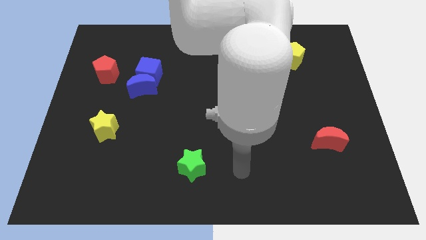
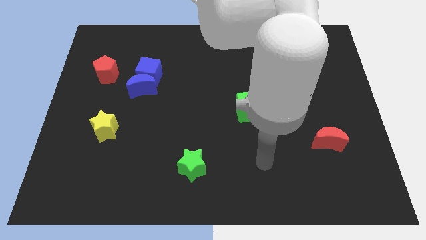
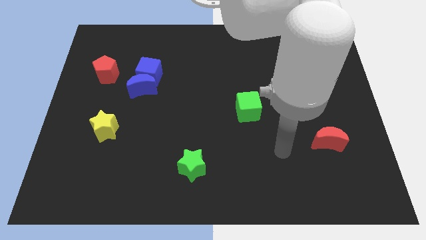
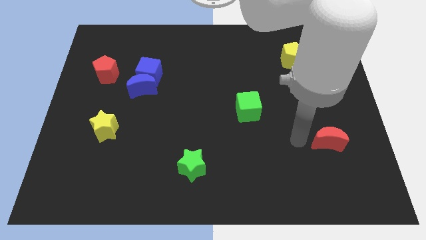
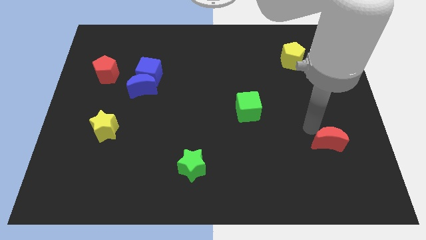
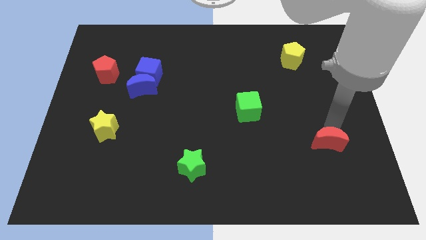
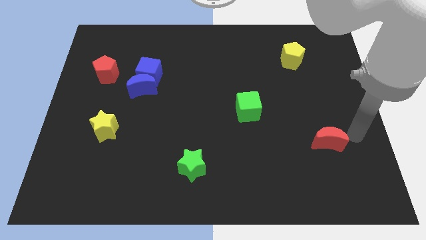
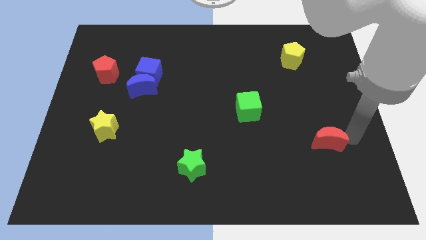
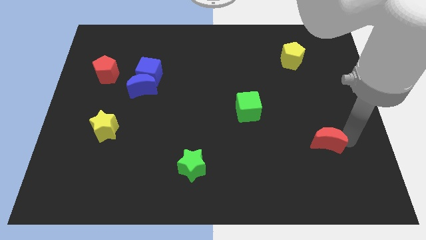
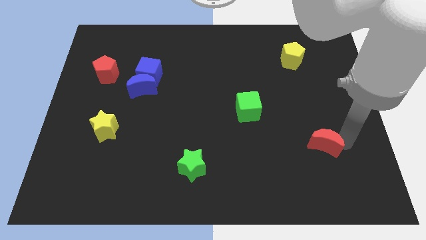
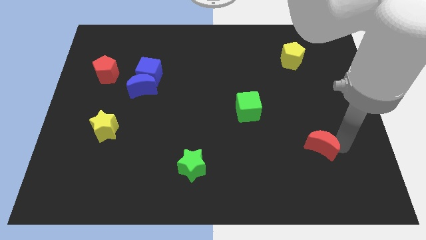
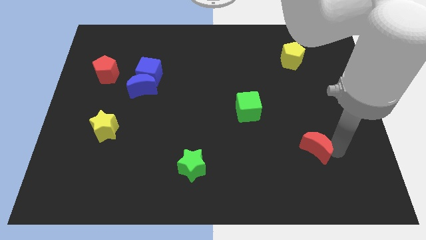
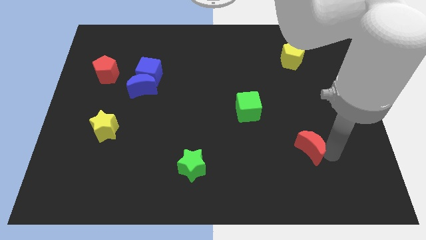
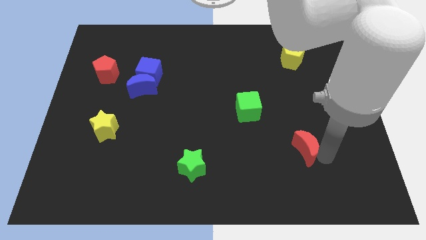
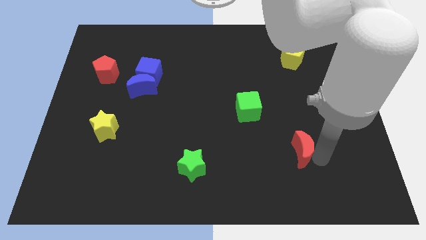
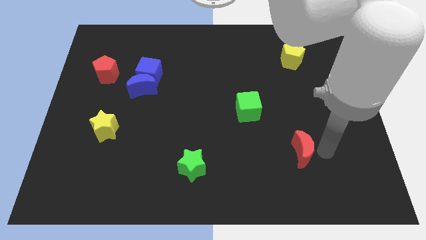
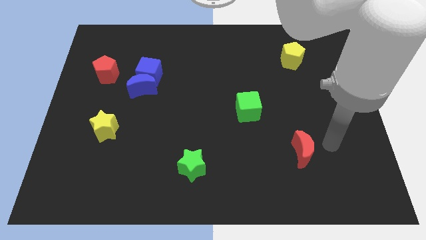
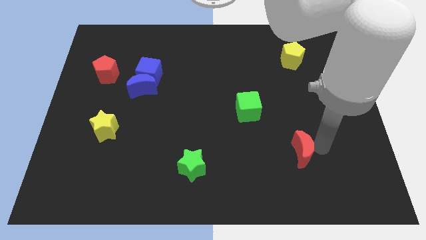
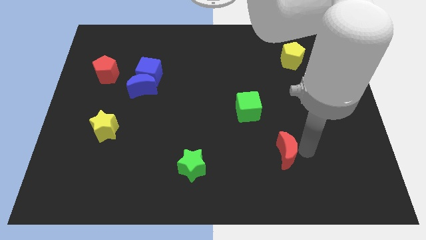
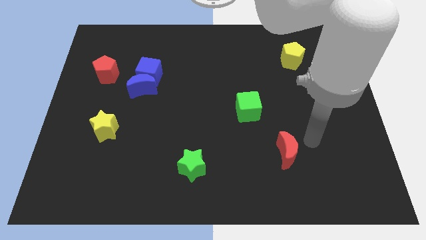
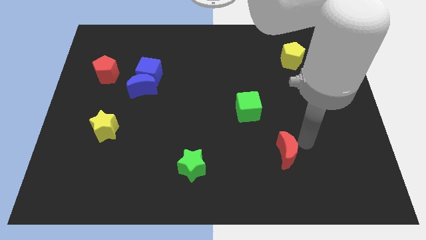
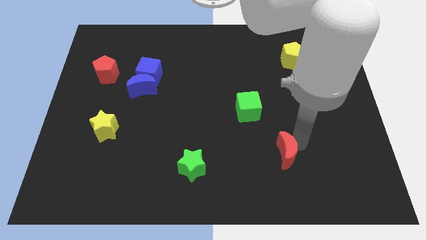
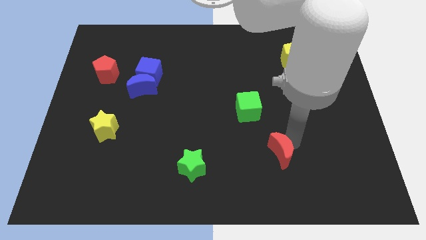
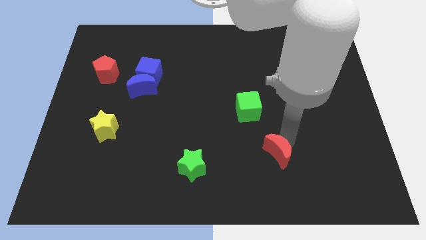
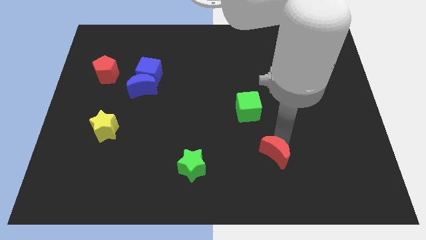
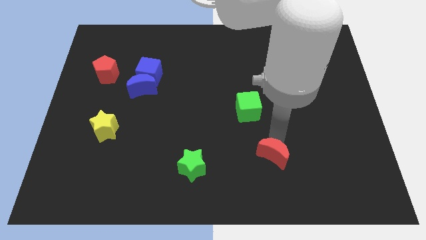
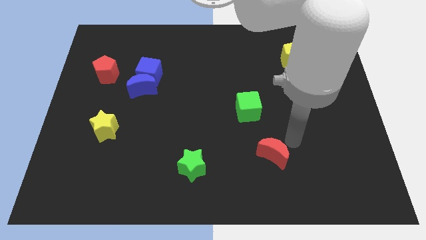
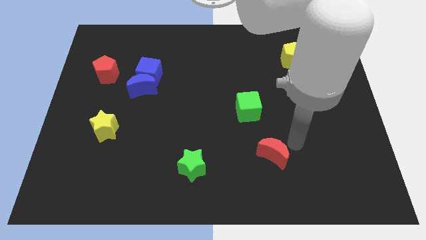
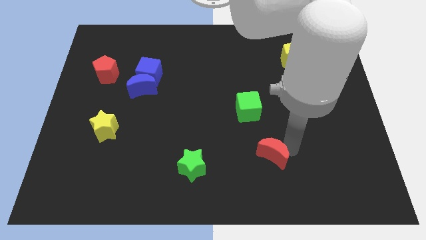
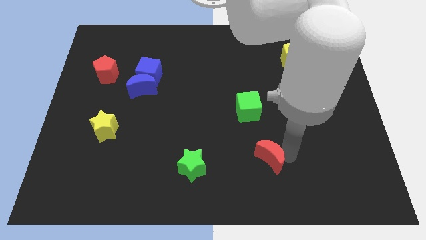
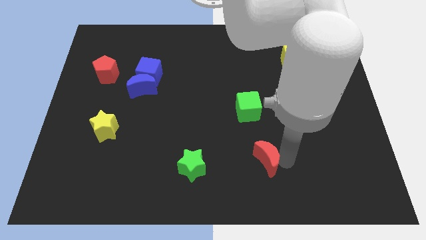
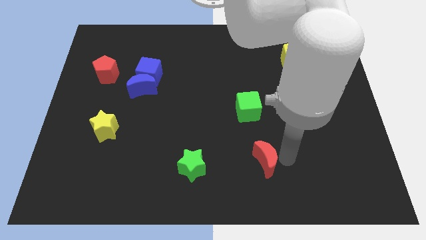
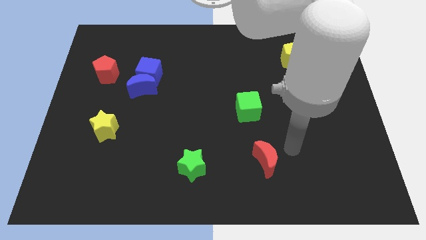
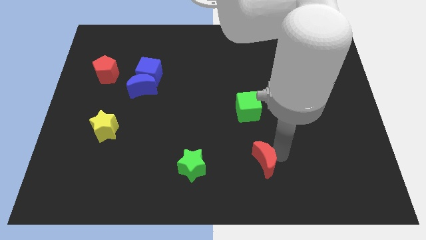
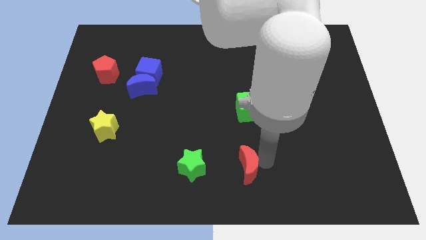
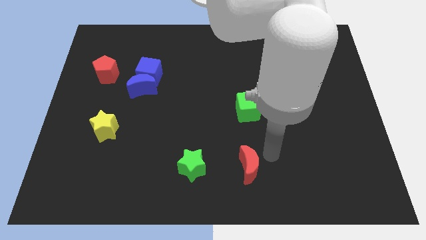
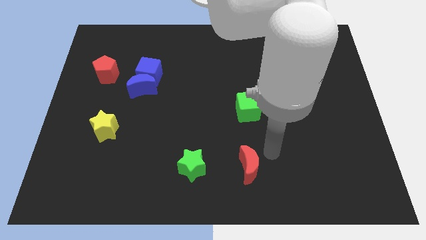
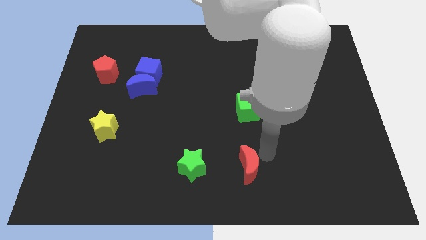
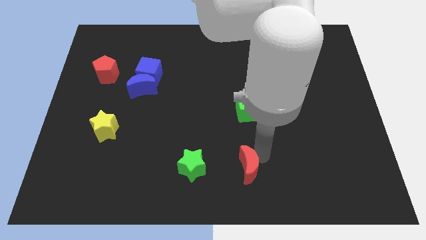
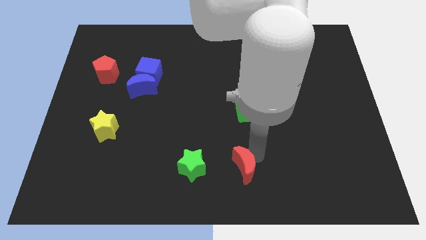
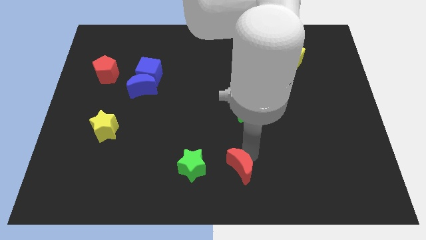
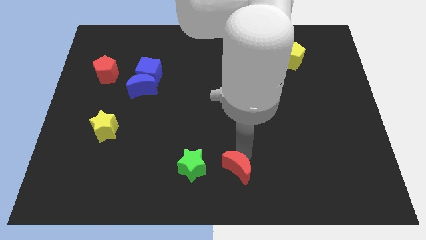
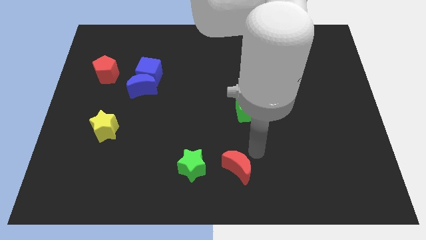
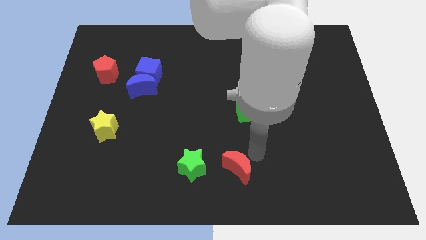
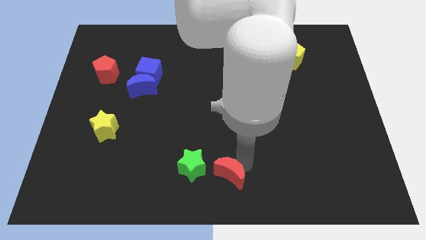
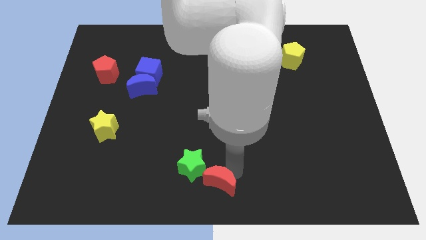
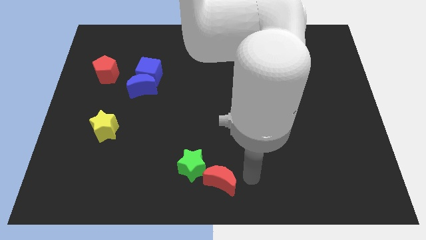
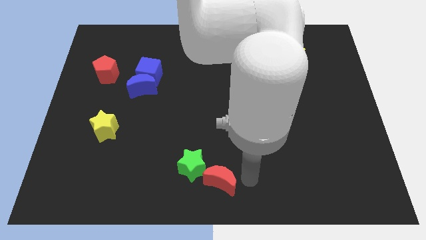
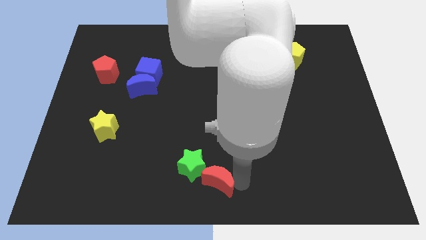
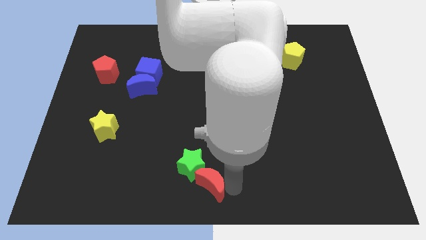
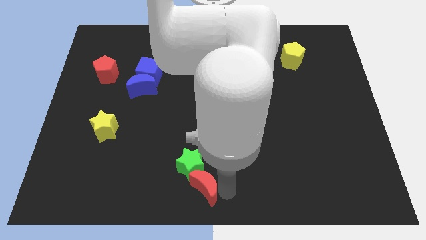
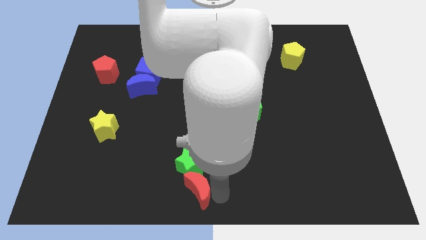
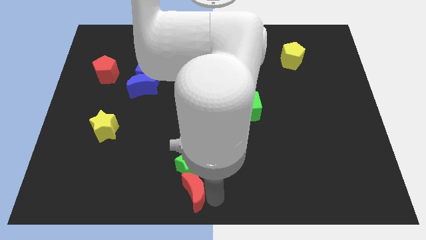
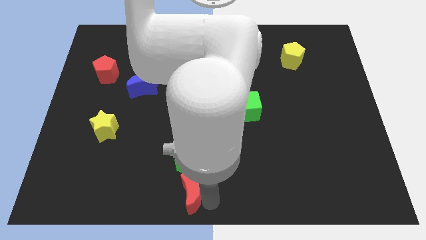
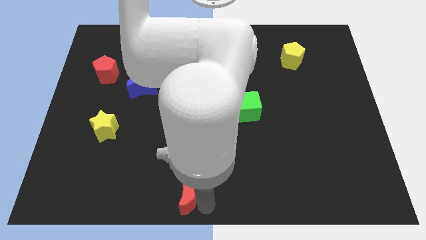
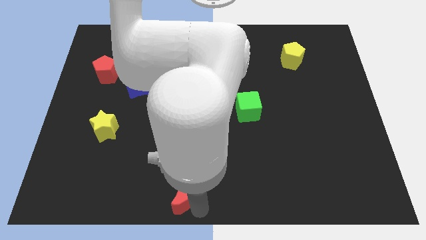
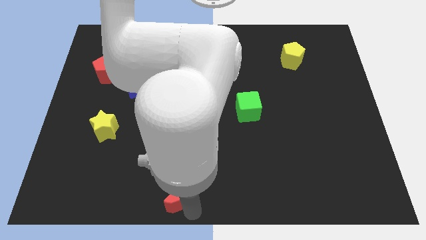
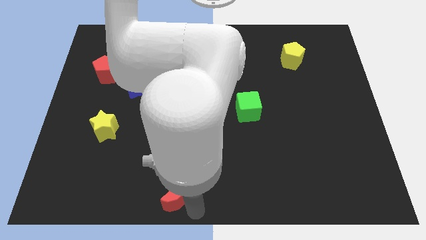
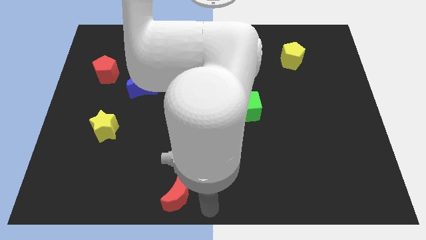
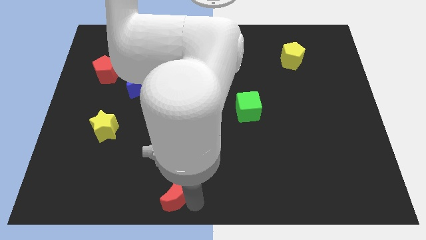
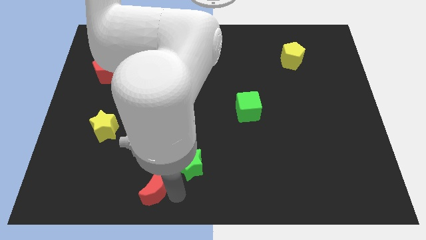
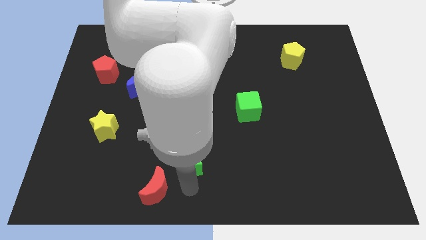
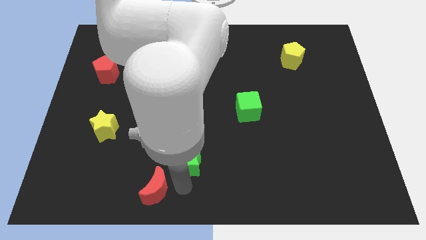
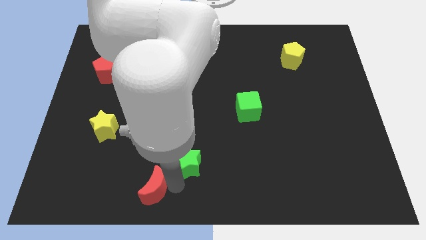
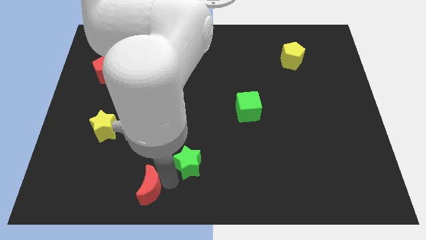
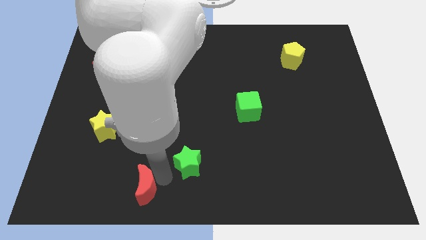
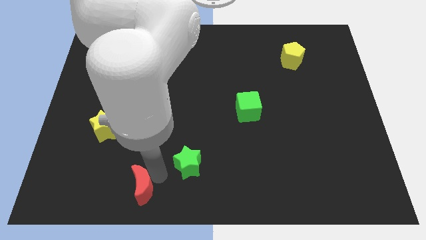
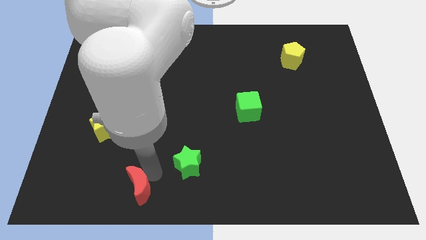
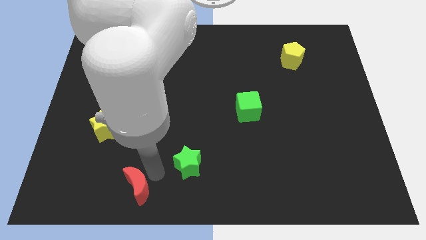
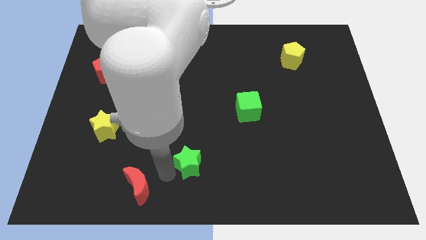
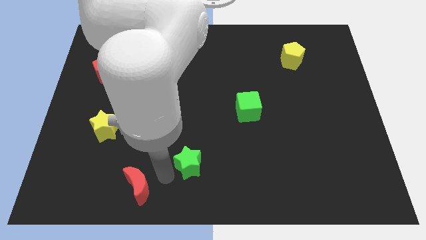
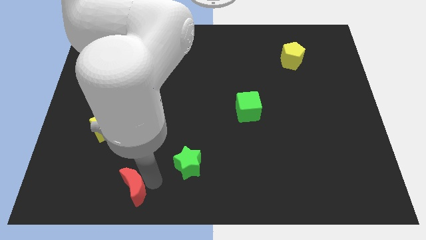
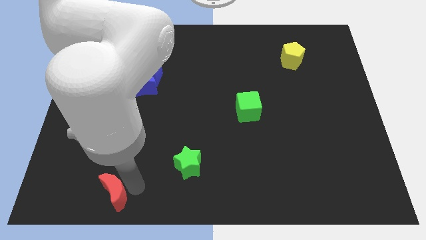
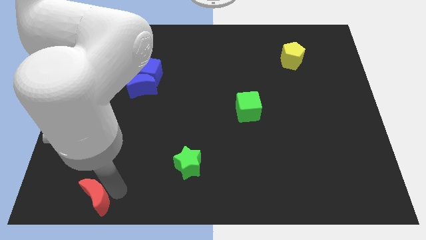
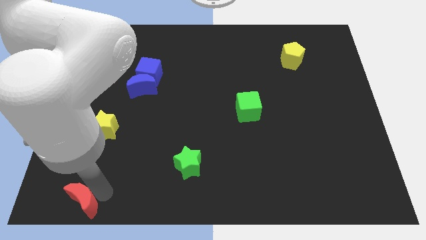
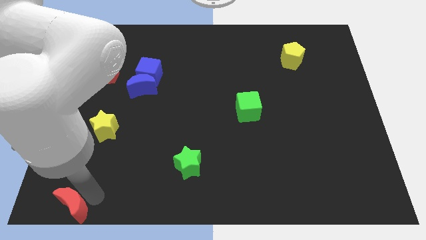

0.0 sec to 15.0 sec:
put the red moon to the lower left corner
